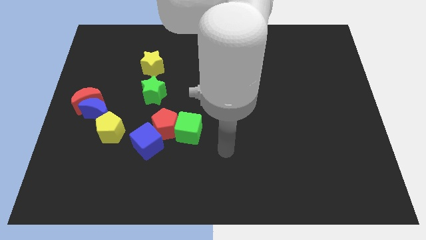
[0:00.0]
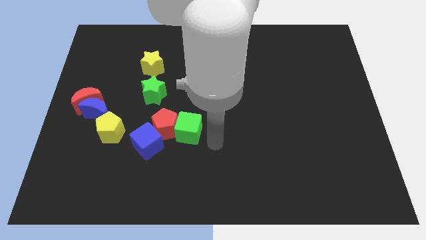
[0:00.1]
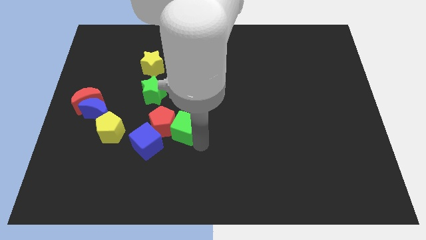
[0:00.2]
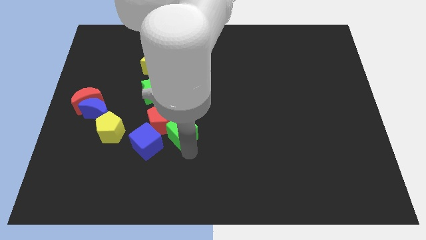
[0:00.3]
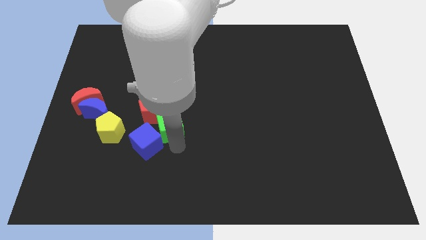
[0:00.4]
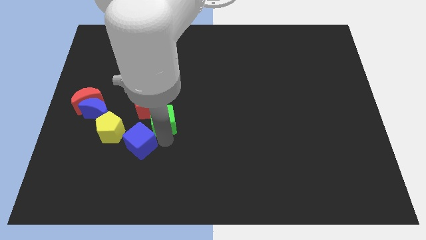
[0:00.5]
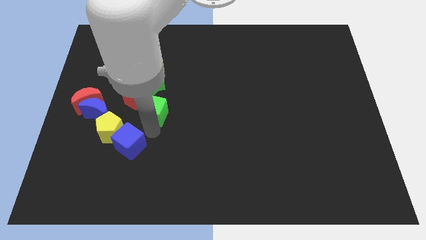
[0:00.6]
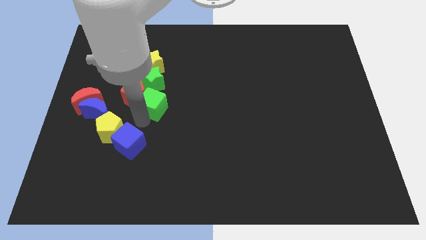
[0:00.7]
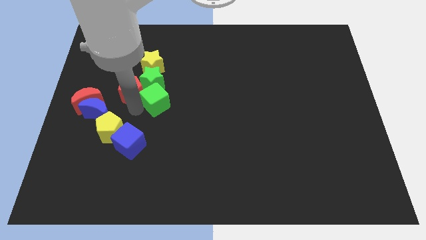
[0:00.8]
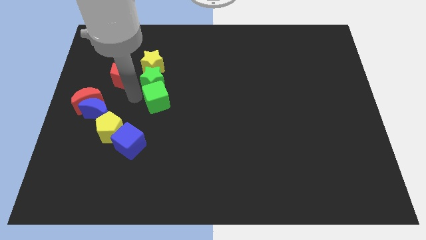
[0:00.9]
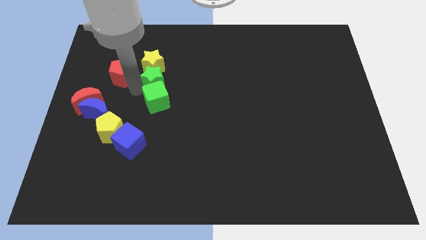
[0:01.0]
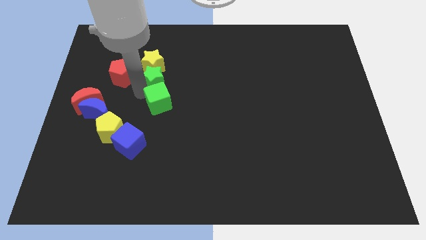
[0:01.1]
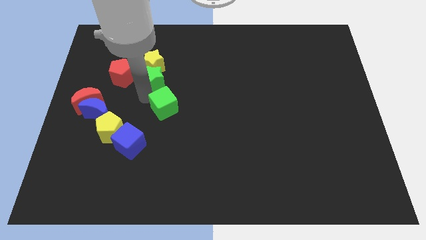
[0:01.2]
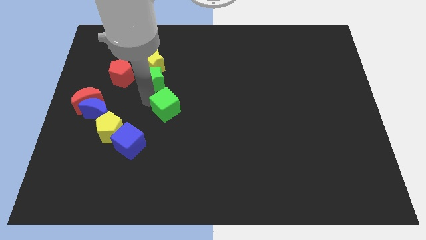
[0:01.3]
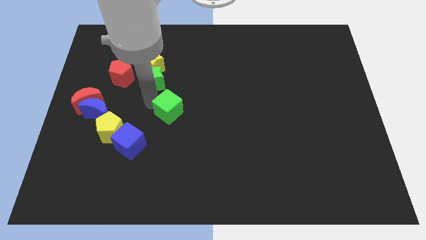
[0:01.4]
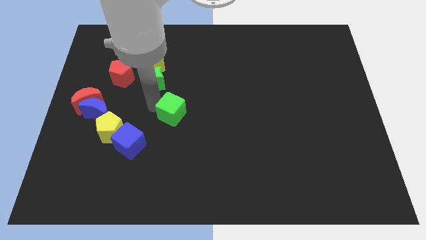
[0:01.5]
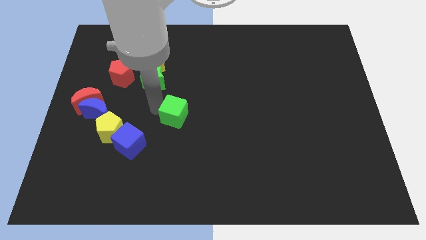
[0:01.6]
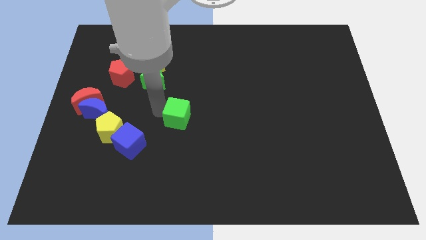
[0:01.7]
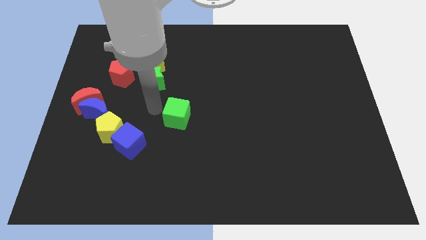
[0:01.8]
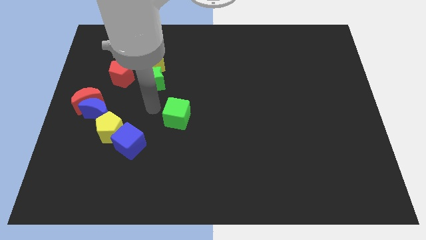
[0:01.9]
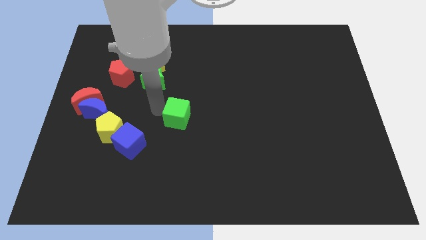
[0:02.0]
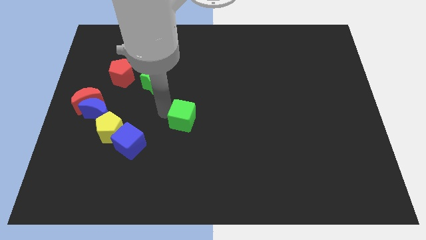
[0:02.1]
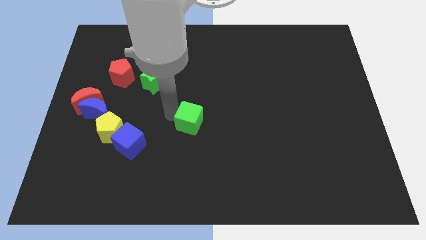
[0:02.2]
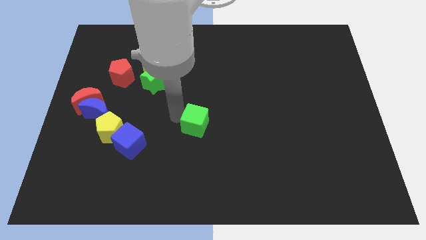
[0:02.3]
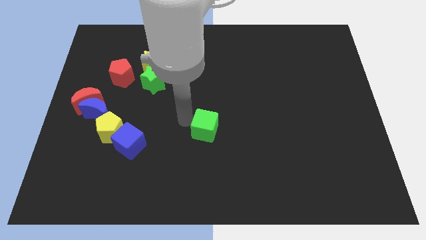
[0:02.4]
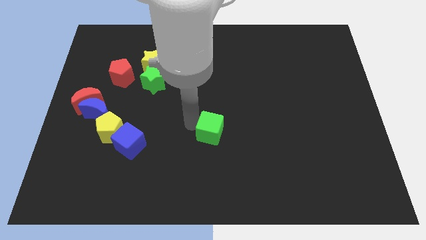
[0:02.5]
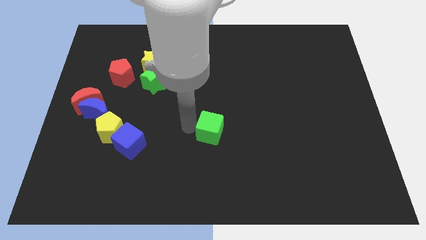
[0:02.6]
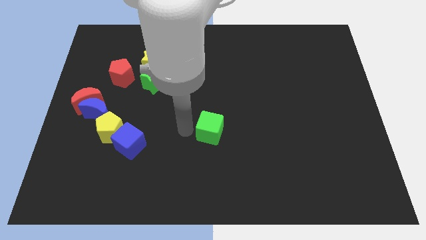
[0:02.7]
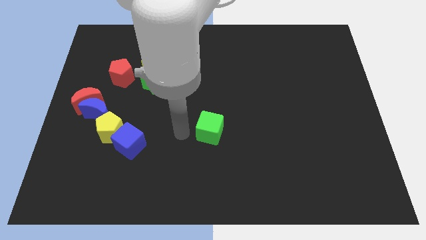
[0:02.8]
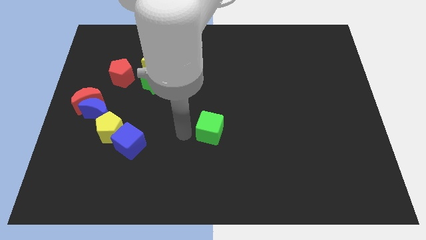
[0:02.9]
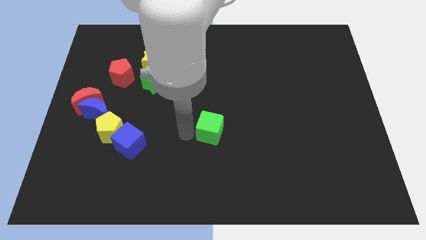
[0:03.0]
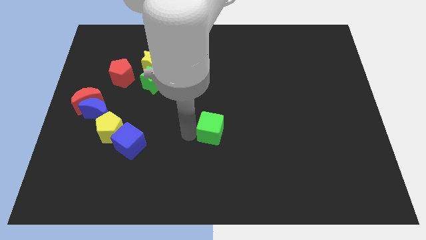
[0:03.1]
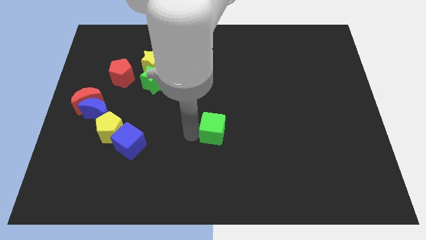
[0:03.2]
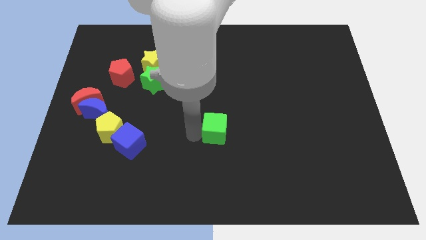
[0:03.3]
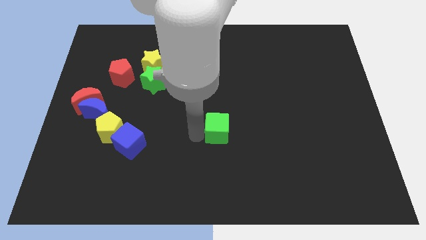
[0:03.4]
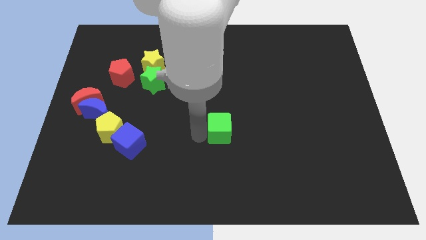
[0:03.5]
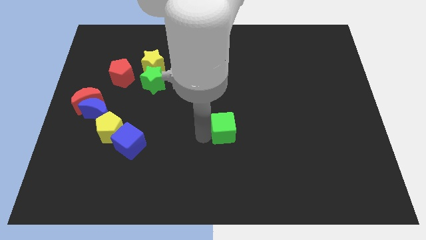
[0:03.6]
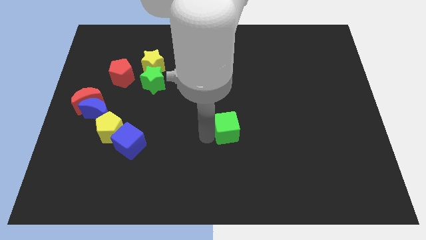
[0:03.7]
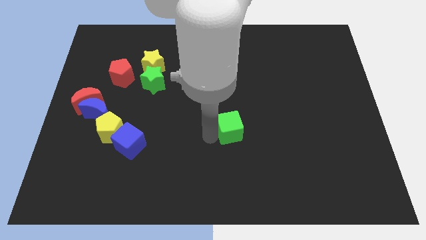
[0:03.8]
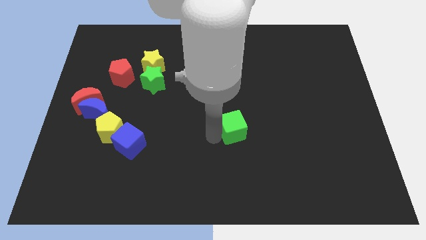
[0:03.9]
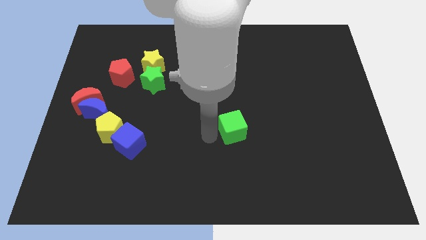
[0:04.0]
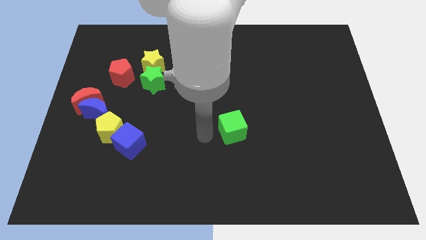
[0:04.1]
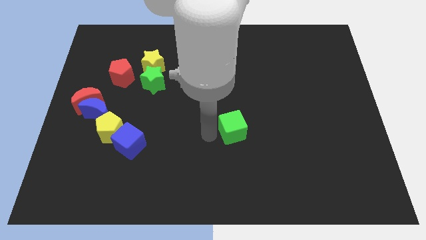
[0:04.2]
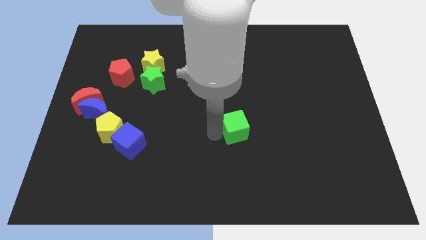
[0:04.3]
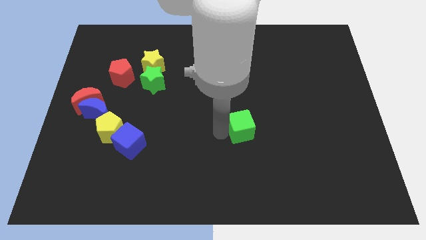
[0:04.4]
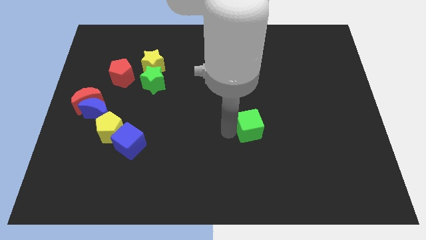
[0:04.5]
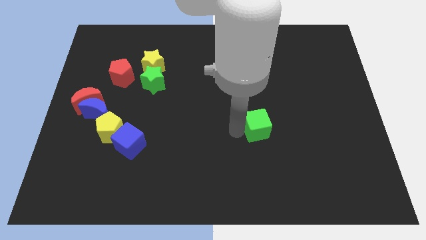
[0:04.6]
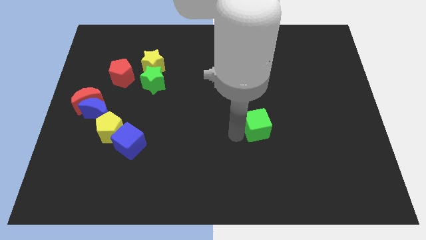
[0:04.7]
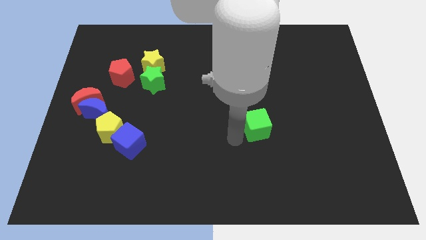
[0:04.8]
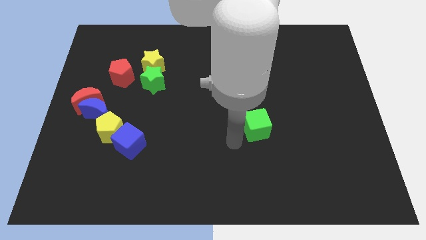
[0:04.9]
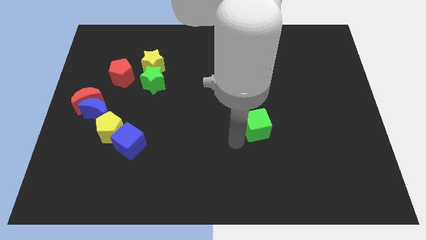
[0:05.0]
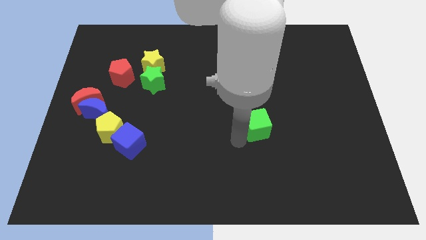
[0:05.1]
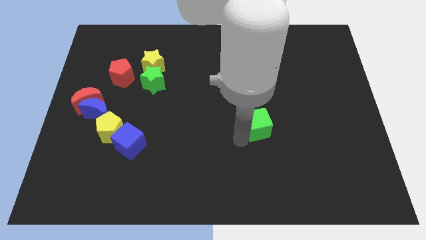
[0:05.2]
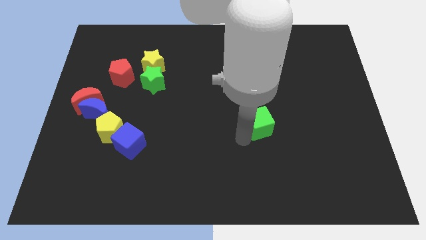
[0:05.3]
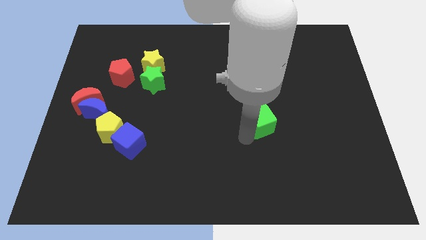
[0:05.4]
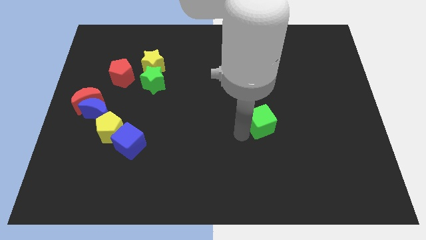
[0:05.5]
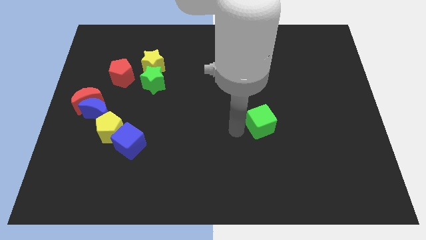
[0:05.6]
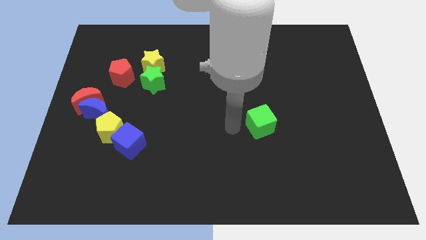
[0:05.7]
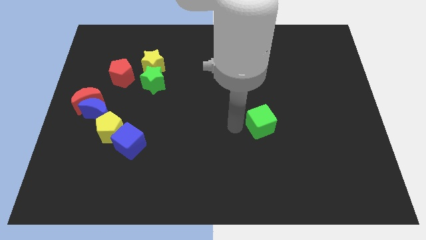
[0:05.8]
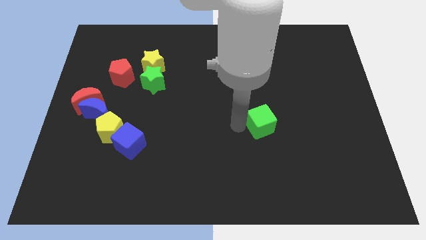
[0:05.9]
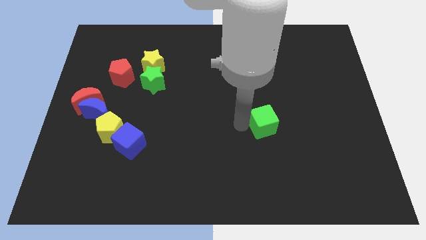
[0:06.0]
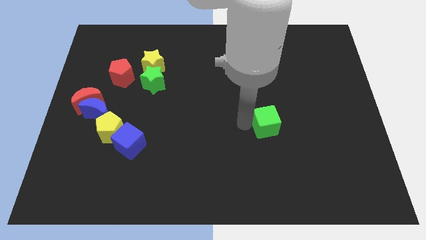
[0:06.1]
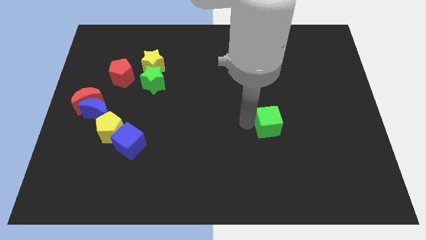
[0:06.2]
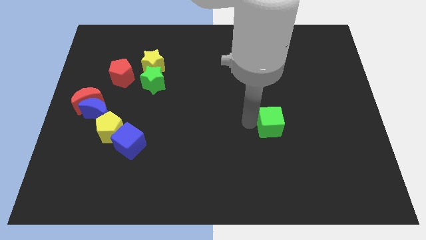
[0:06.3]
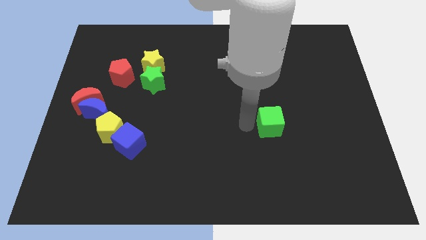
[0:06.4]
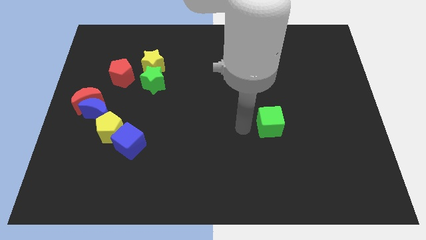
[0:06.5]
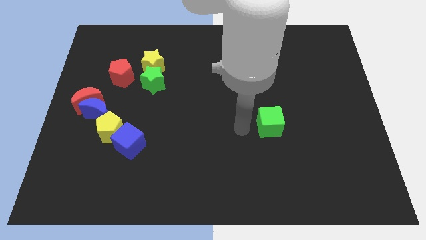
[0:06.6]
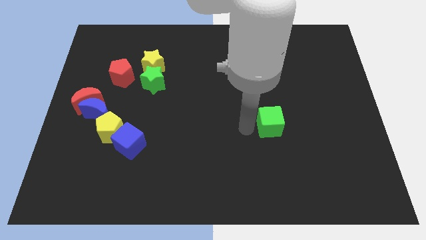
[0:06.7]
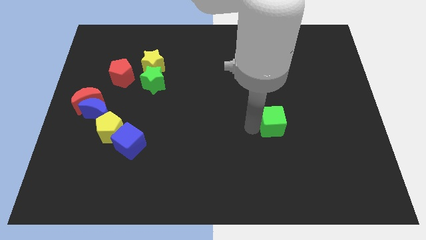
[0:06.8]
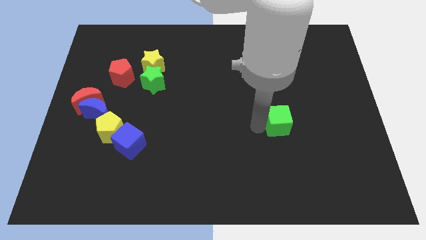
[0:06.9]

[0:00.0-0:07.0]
push the green cube to the right

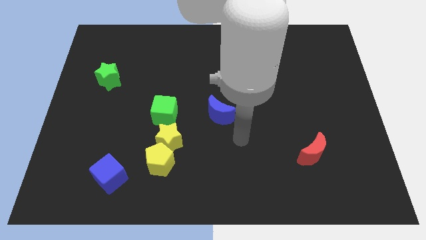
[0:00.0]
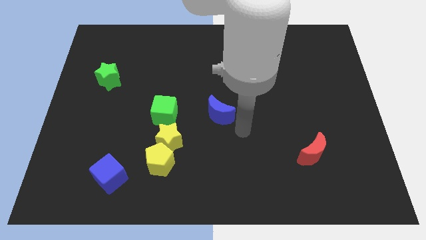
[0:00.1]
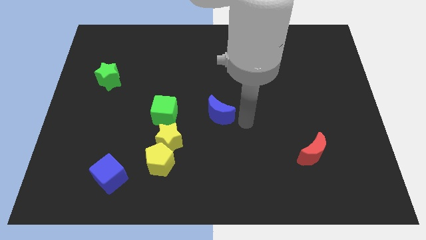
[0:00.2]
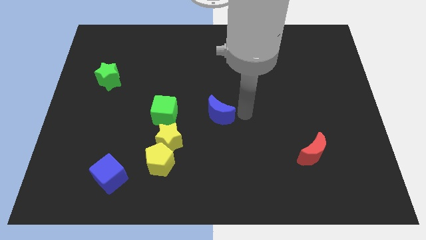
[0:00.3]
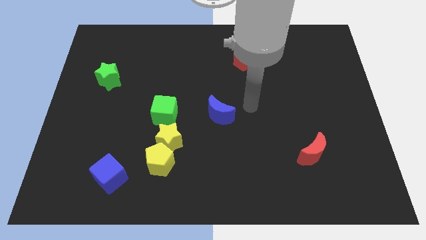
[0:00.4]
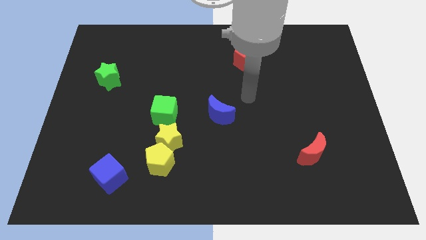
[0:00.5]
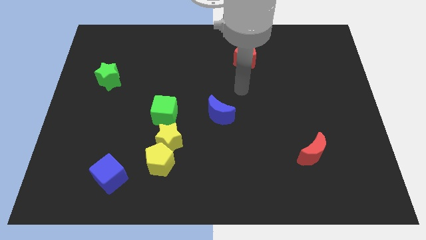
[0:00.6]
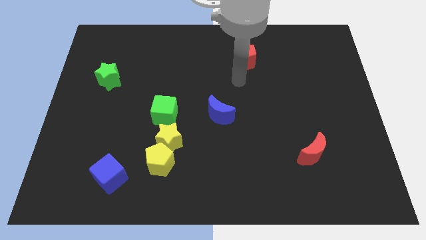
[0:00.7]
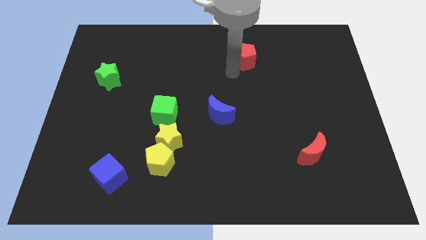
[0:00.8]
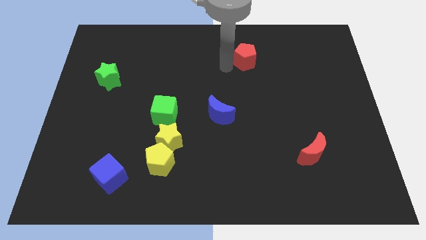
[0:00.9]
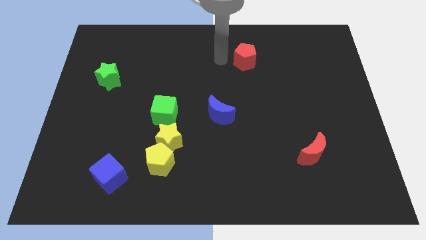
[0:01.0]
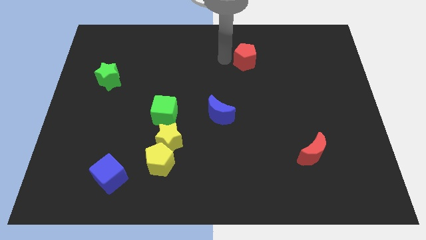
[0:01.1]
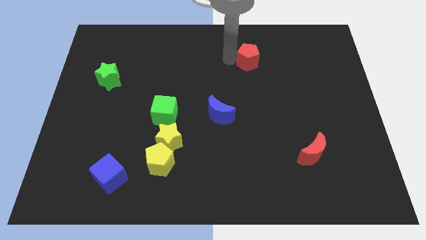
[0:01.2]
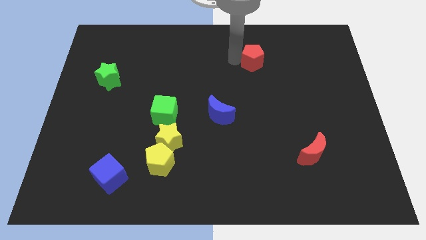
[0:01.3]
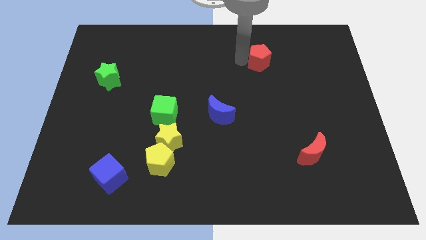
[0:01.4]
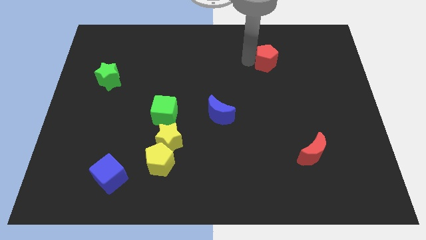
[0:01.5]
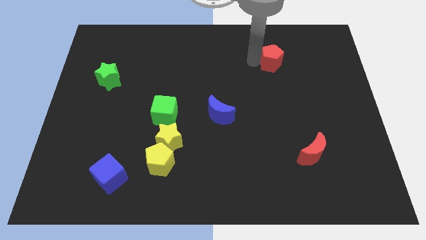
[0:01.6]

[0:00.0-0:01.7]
slide the red pentagon to the right a little bit
